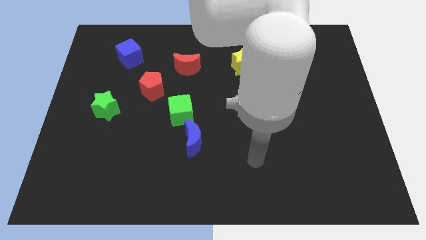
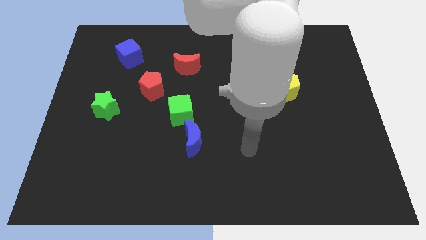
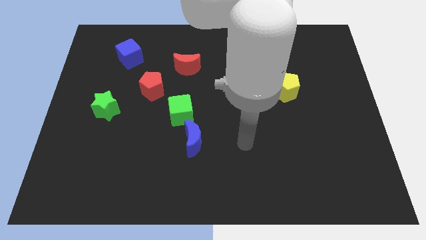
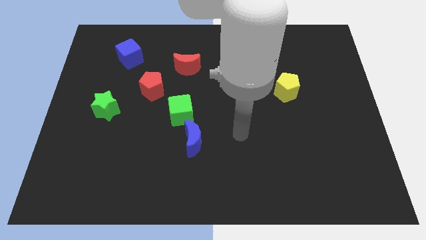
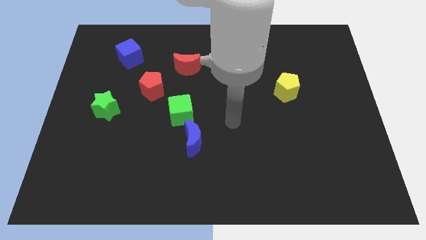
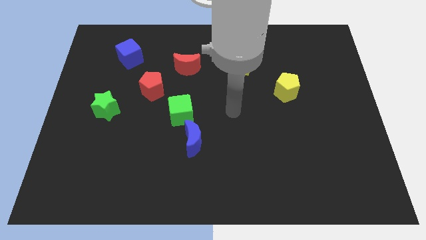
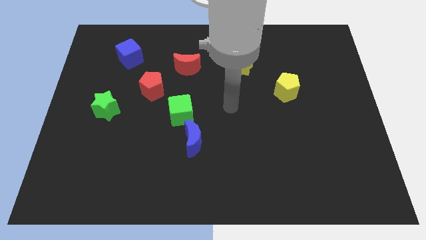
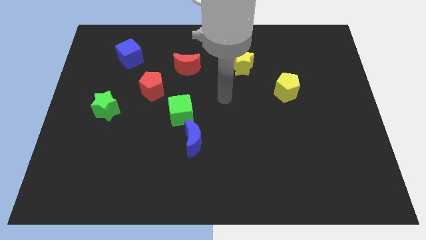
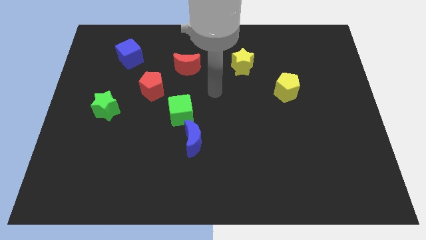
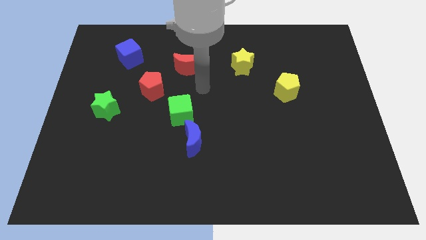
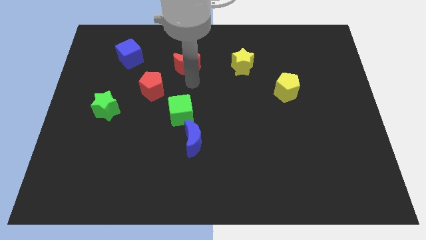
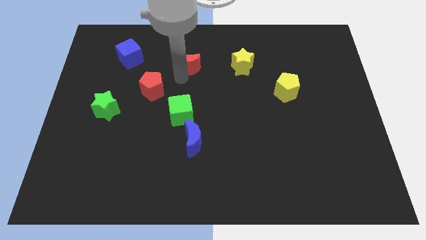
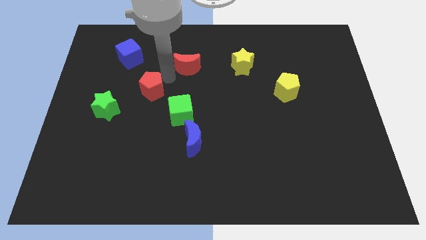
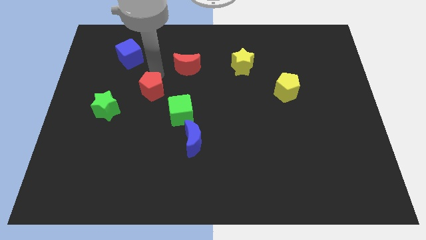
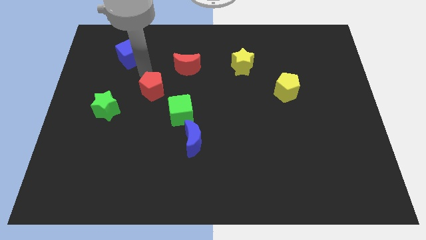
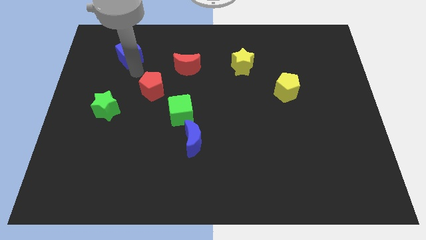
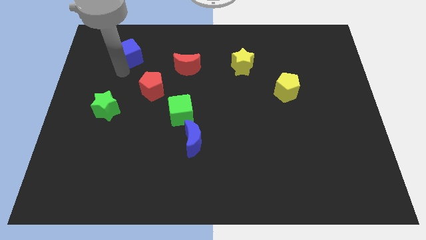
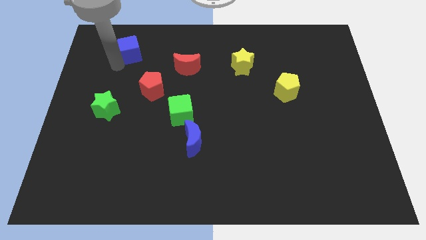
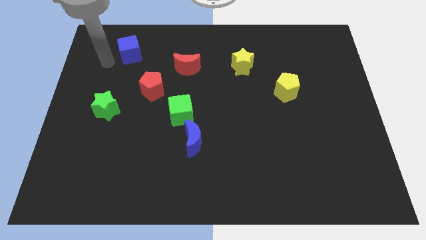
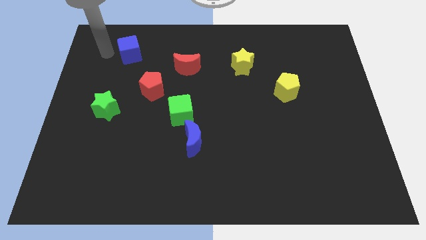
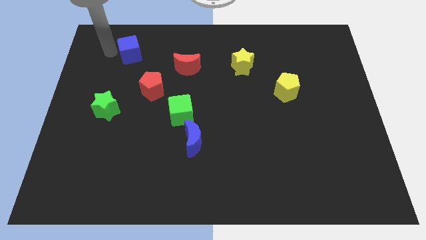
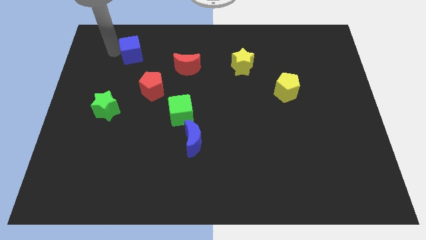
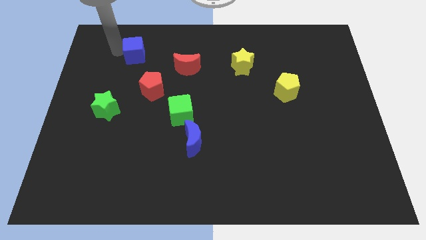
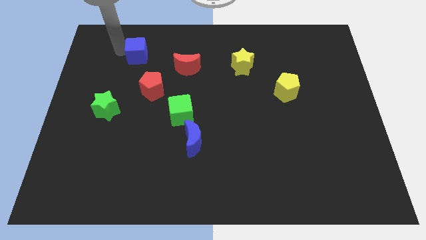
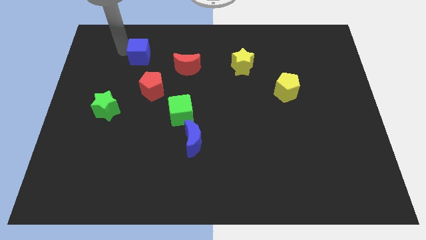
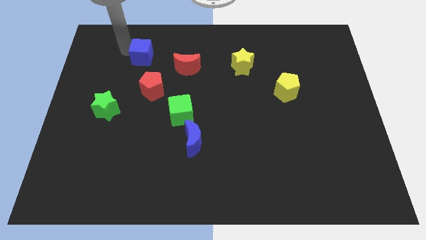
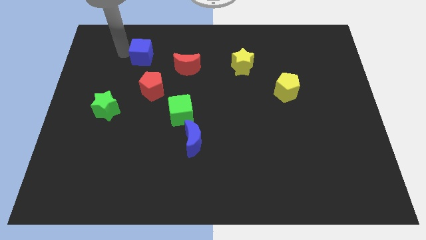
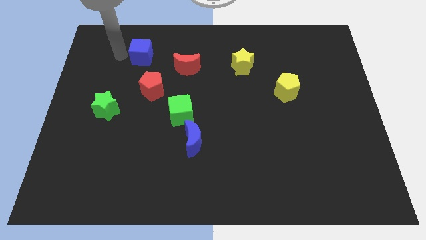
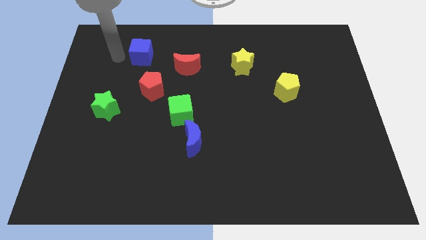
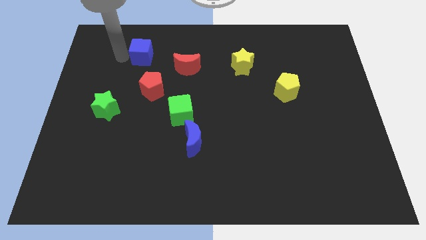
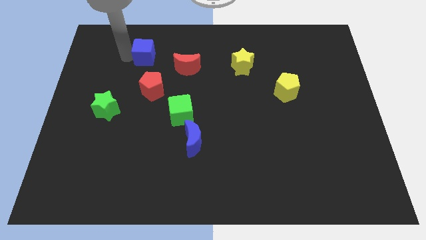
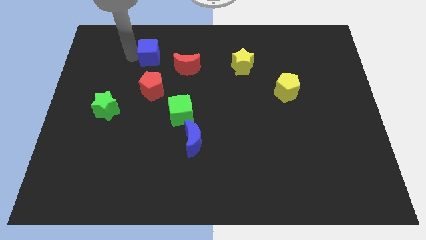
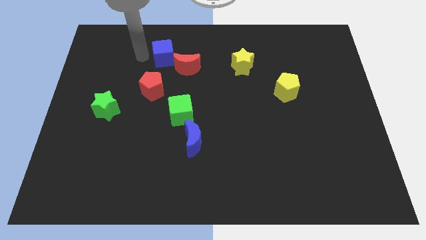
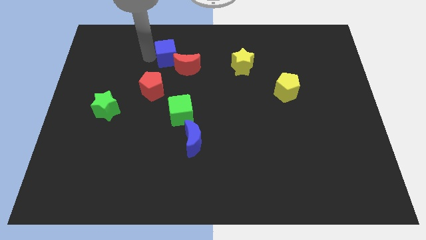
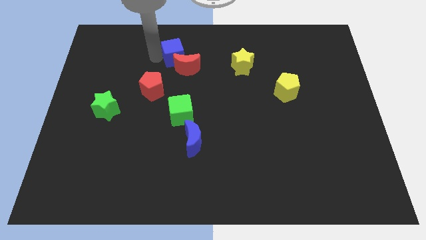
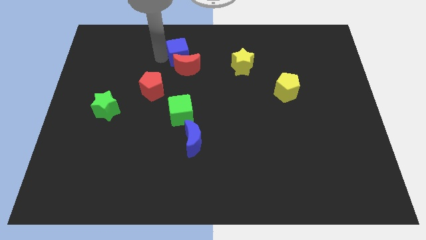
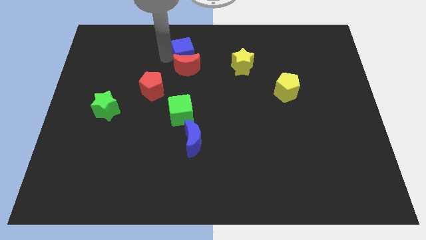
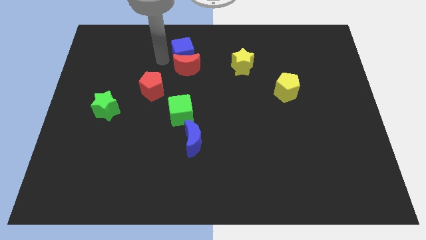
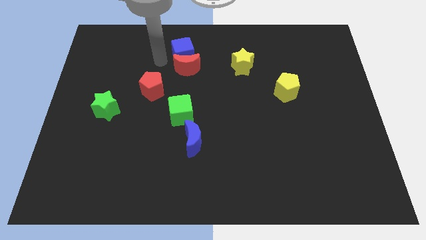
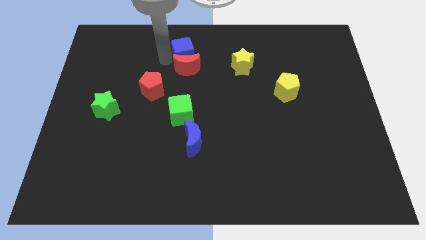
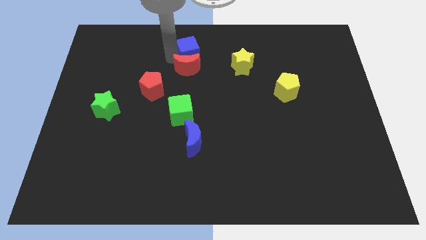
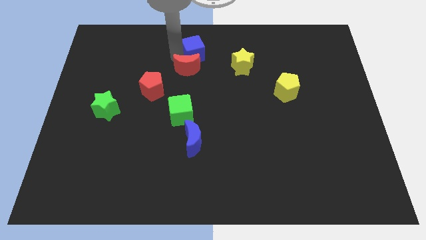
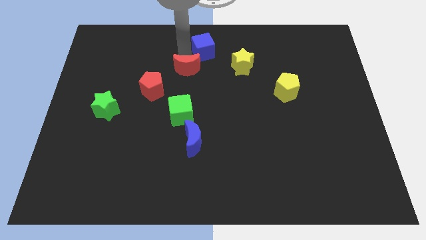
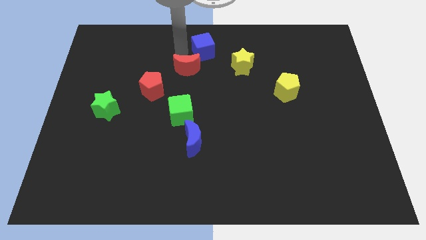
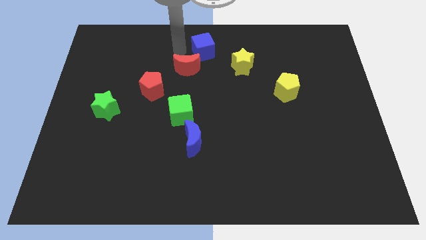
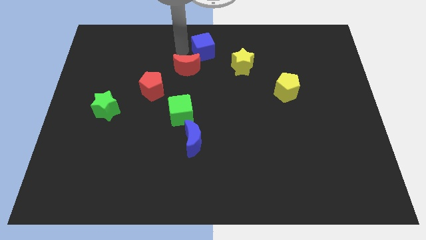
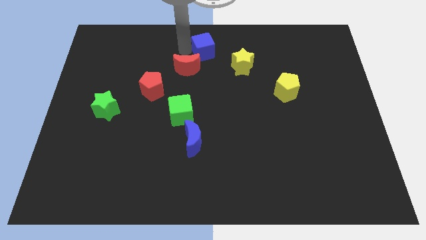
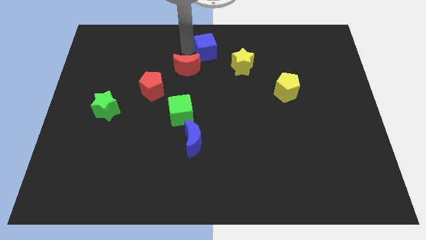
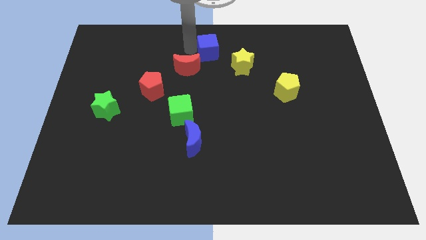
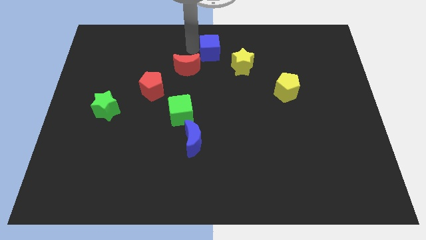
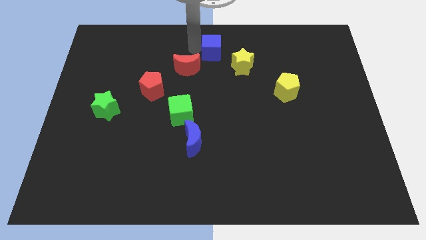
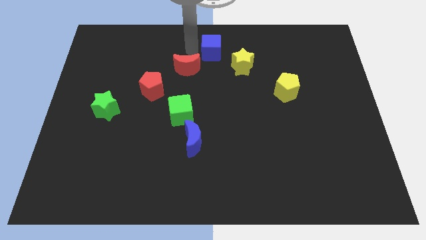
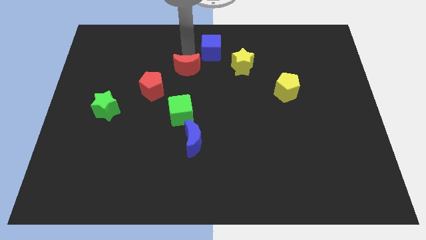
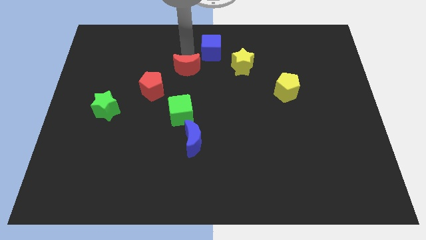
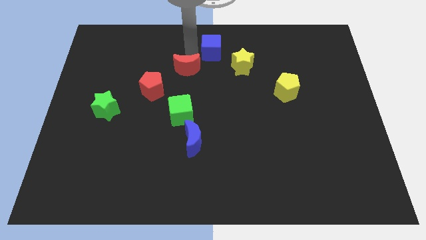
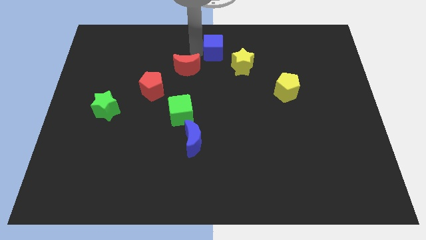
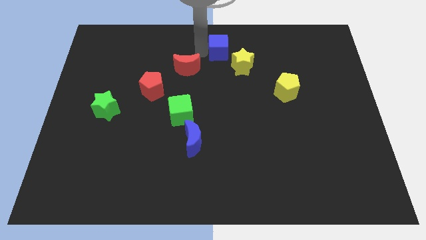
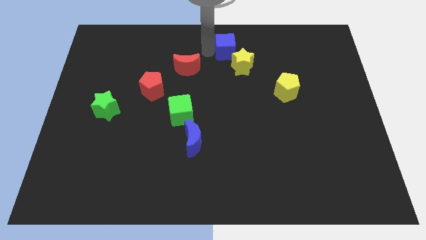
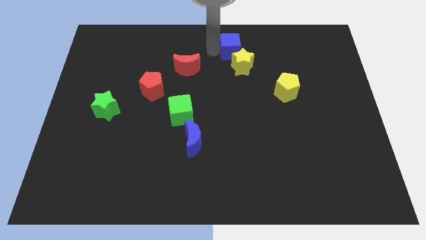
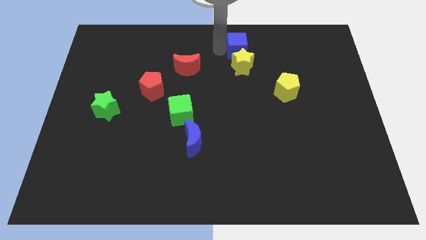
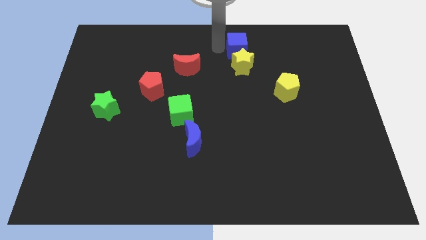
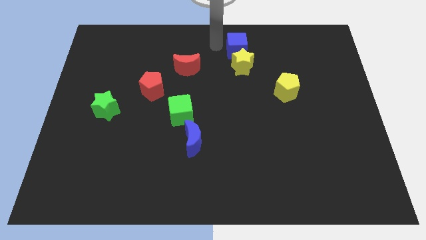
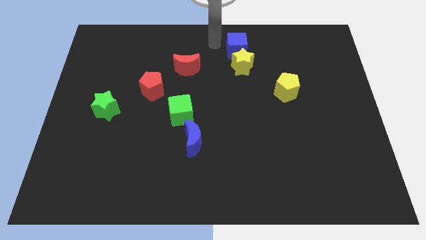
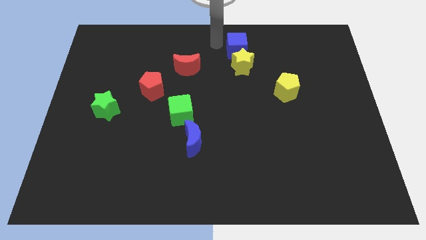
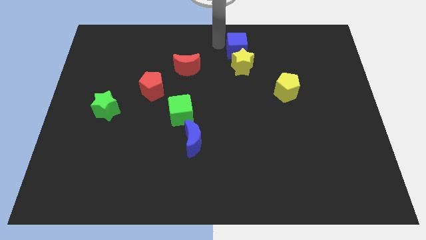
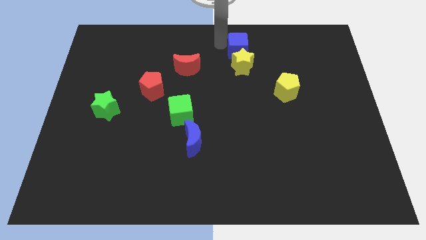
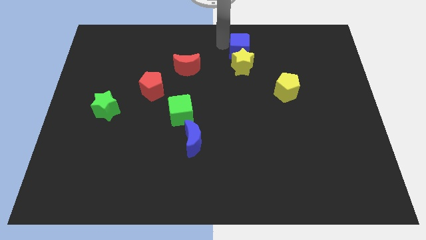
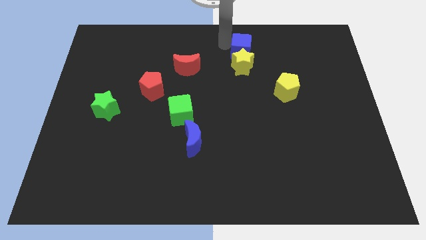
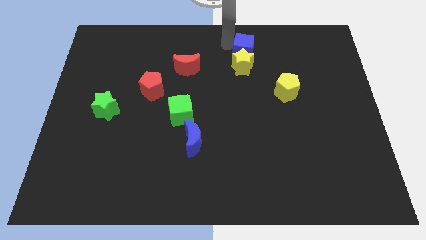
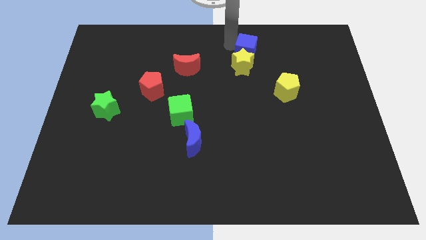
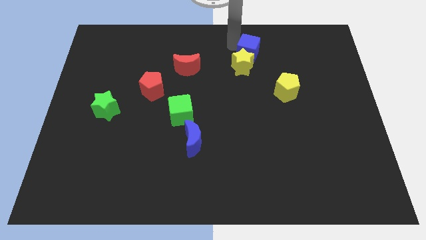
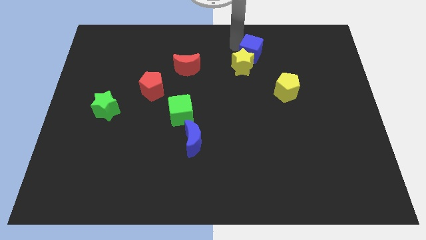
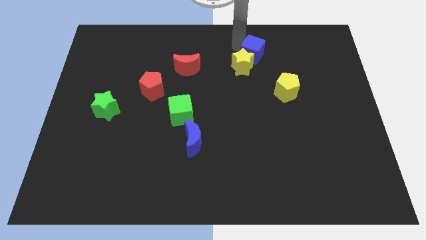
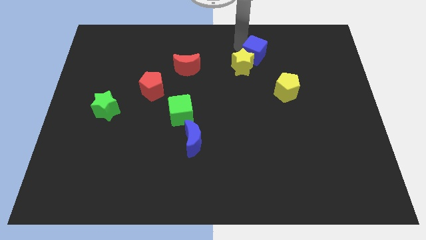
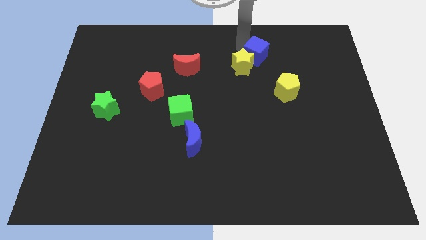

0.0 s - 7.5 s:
push the blue cube to the right side of the yellow star
